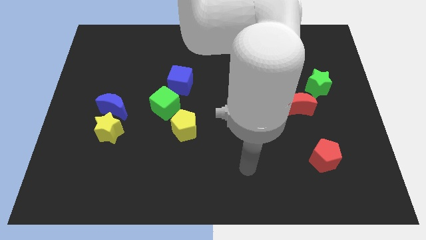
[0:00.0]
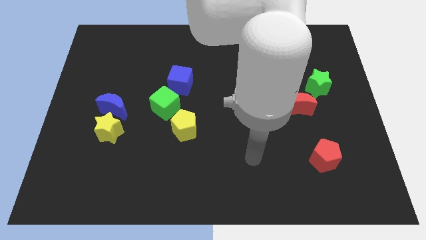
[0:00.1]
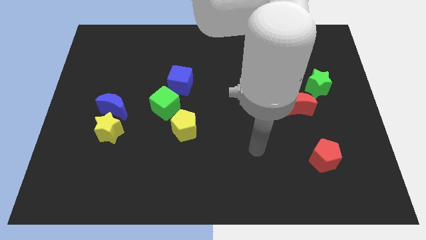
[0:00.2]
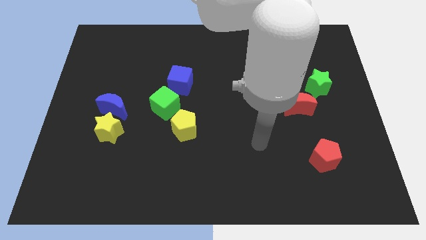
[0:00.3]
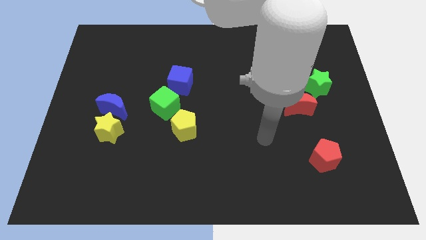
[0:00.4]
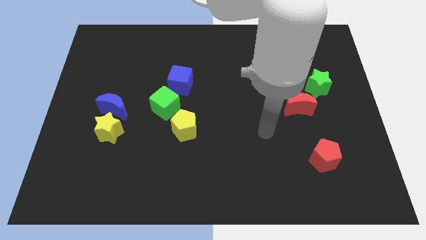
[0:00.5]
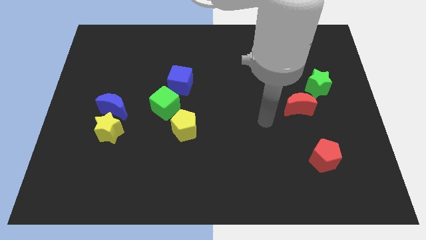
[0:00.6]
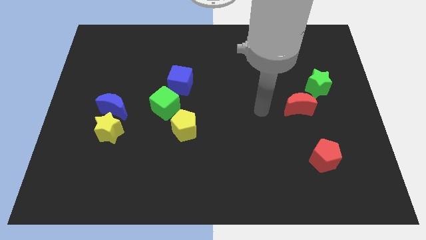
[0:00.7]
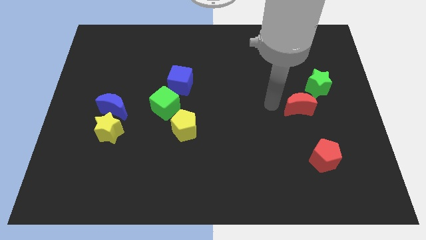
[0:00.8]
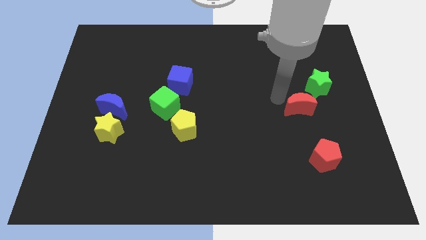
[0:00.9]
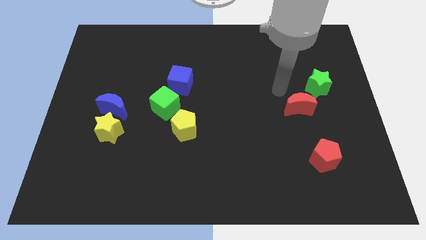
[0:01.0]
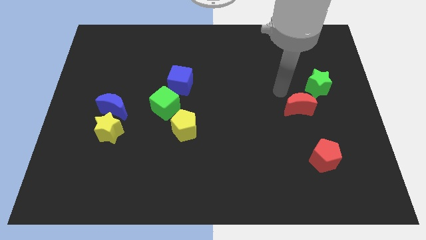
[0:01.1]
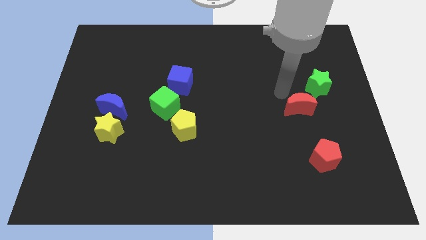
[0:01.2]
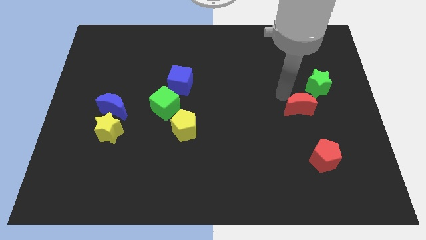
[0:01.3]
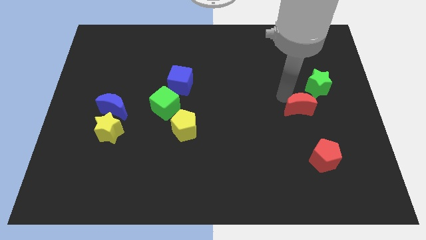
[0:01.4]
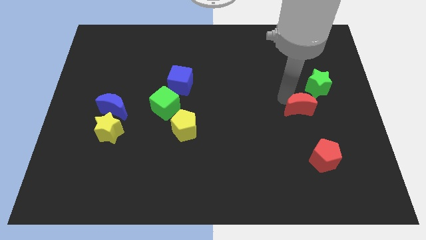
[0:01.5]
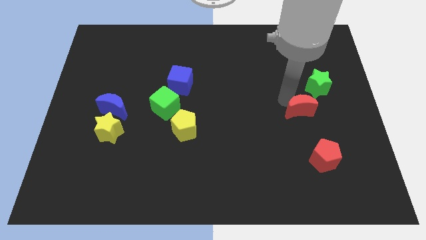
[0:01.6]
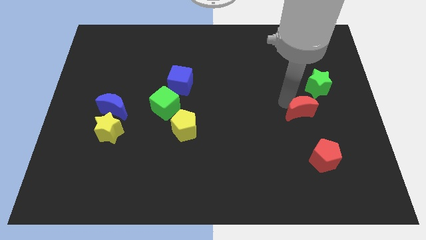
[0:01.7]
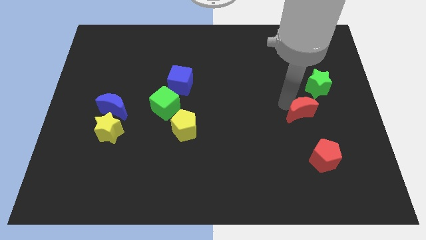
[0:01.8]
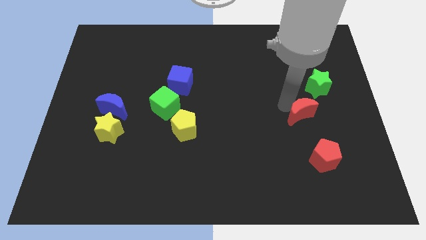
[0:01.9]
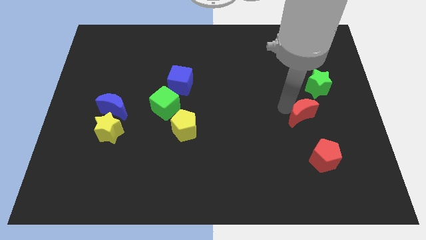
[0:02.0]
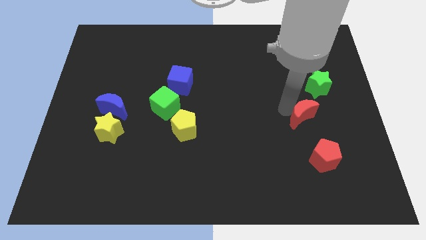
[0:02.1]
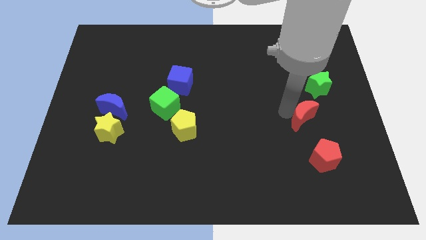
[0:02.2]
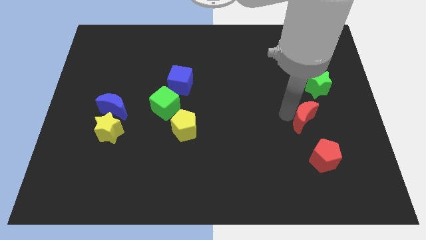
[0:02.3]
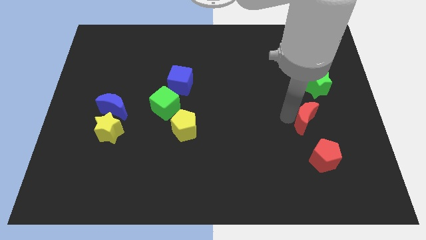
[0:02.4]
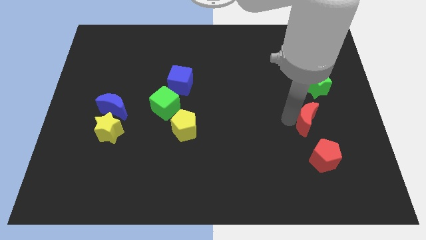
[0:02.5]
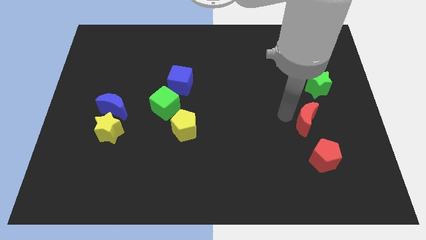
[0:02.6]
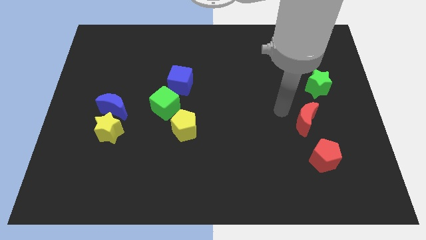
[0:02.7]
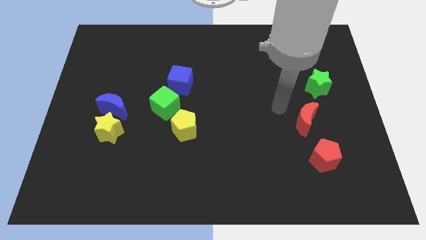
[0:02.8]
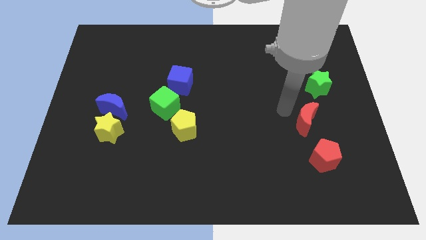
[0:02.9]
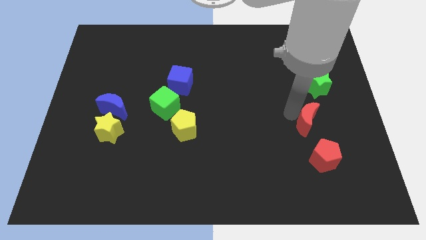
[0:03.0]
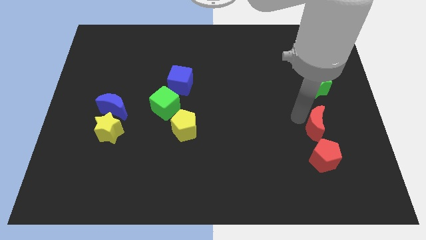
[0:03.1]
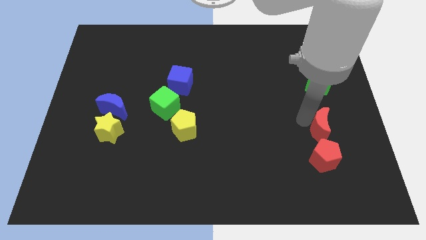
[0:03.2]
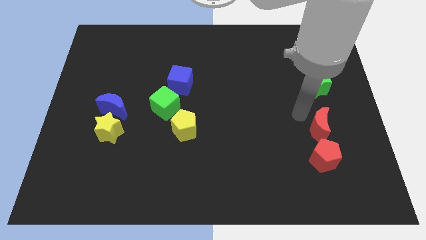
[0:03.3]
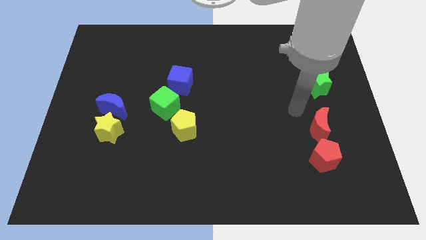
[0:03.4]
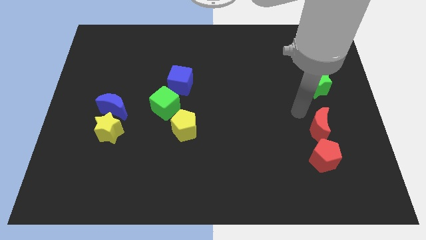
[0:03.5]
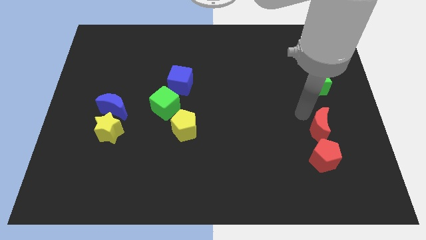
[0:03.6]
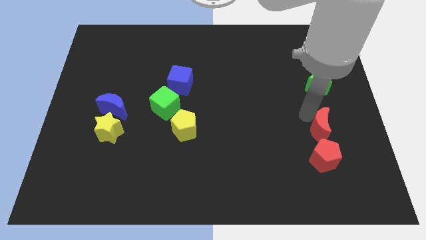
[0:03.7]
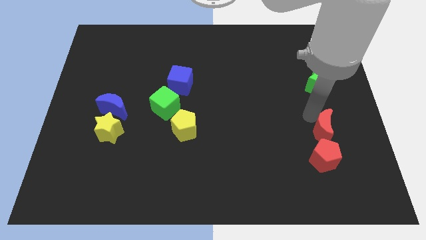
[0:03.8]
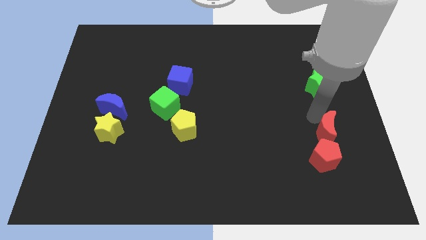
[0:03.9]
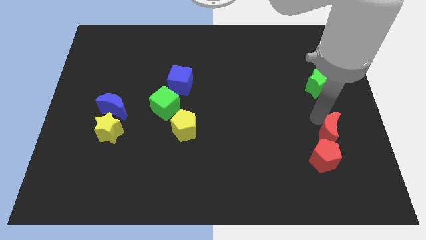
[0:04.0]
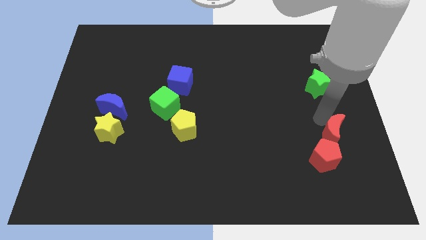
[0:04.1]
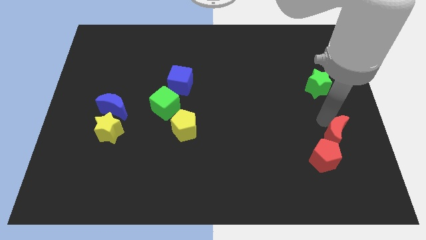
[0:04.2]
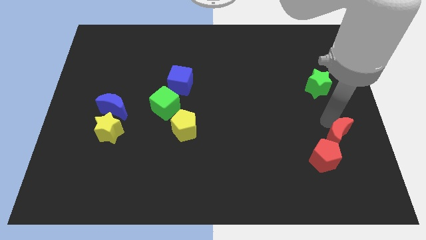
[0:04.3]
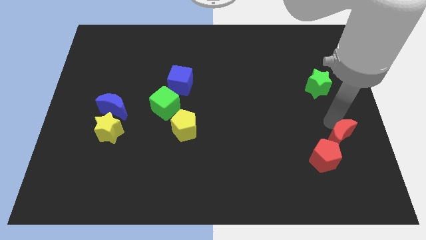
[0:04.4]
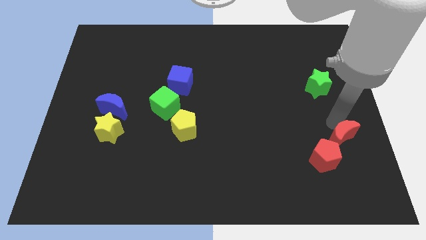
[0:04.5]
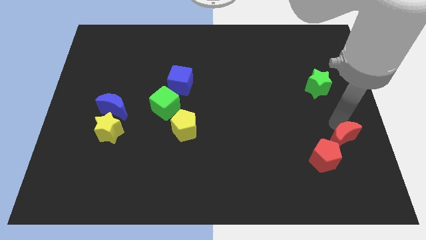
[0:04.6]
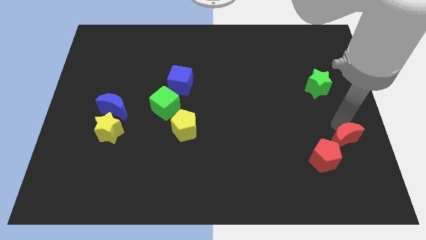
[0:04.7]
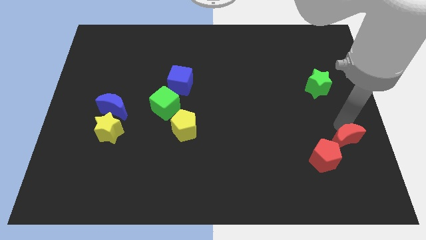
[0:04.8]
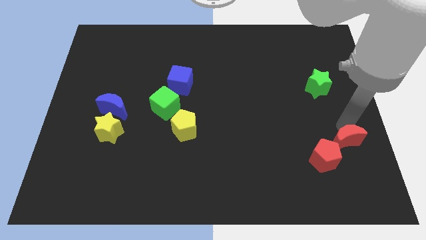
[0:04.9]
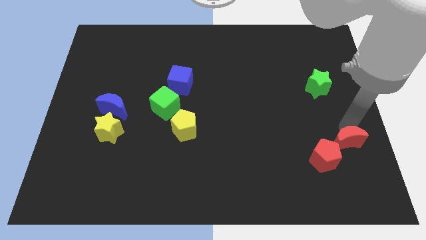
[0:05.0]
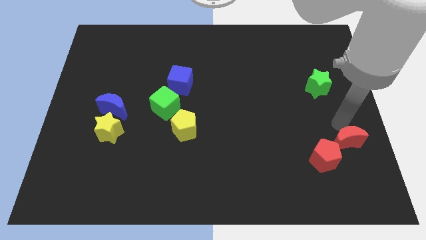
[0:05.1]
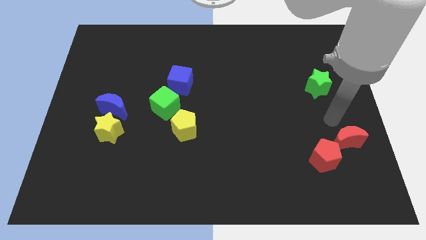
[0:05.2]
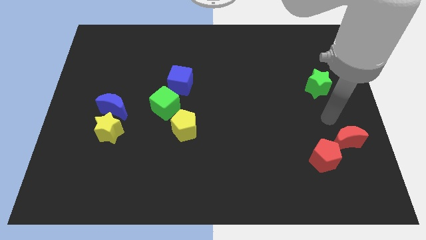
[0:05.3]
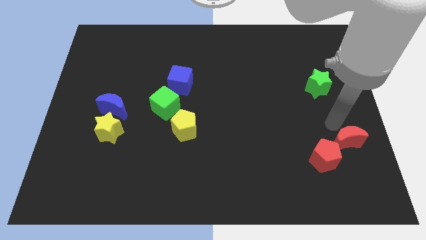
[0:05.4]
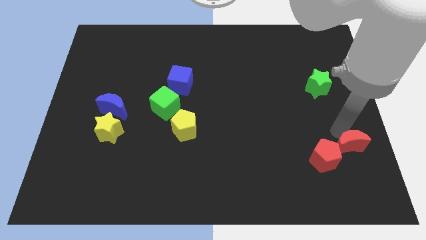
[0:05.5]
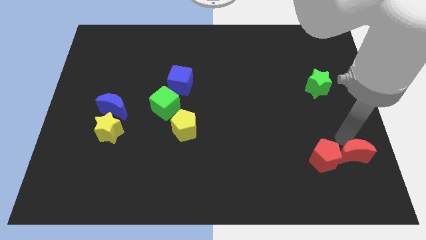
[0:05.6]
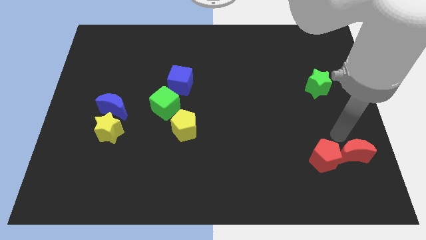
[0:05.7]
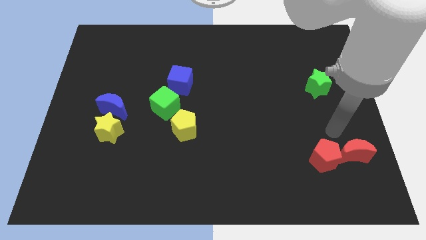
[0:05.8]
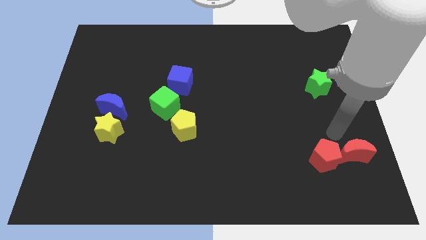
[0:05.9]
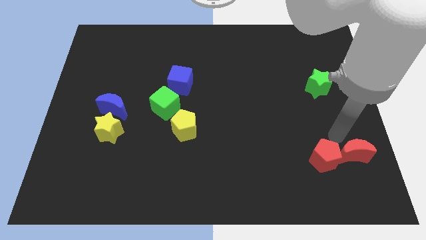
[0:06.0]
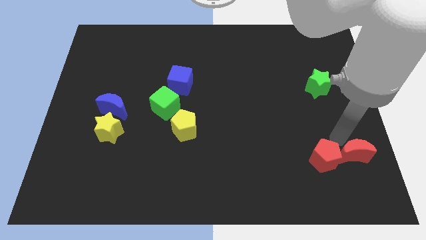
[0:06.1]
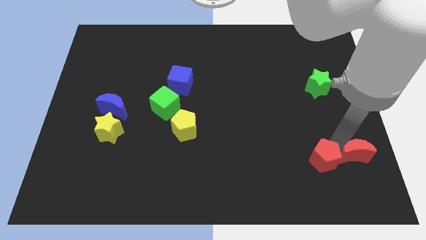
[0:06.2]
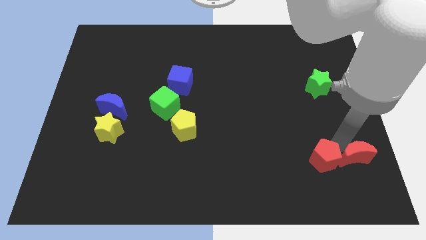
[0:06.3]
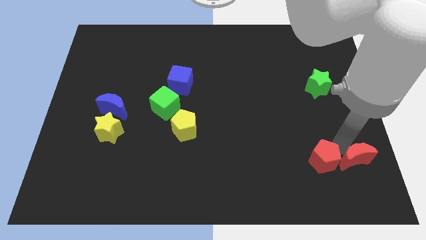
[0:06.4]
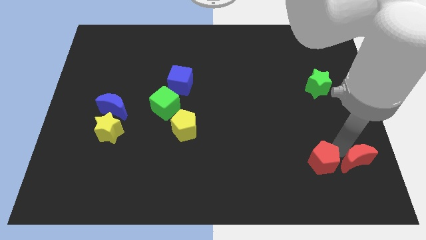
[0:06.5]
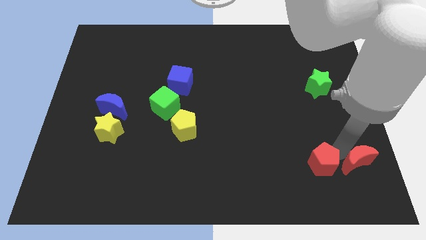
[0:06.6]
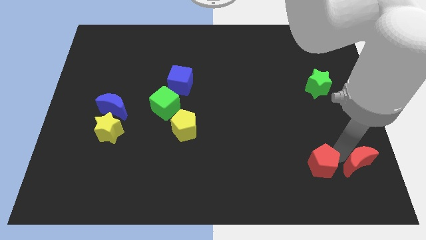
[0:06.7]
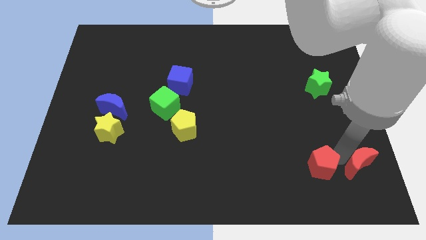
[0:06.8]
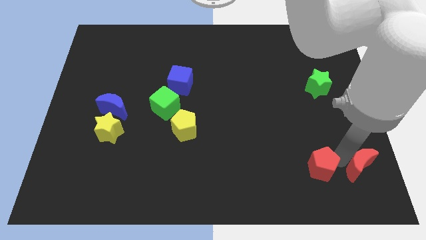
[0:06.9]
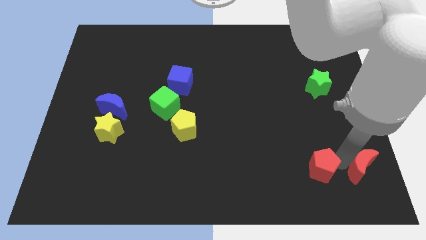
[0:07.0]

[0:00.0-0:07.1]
move the red moon to the bottom right corner

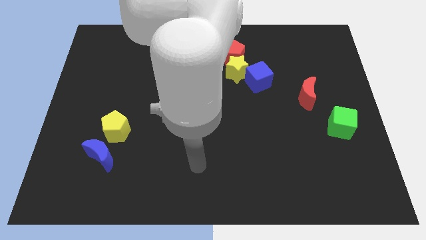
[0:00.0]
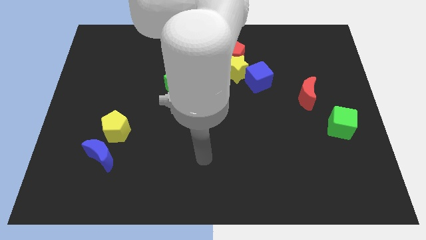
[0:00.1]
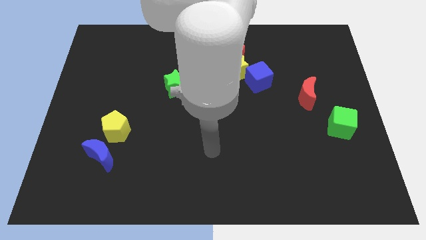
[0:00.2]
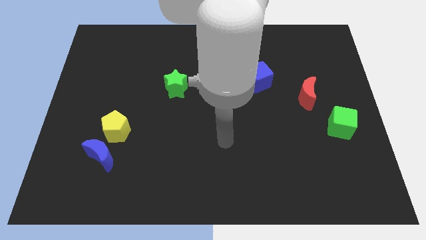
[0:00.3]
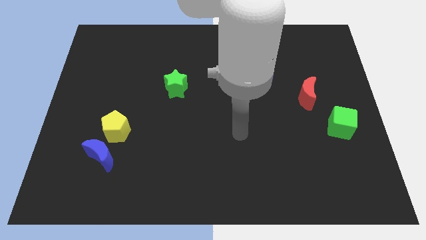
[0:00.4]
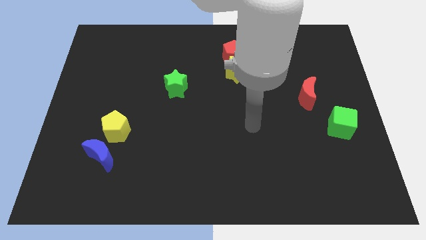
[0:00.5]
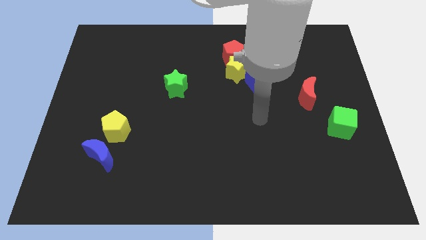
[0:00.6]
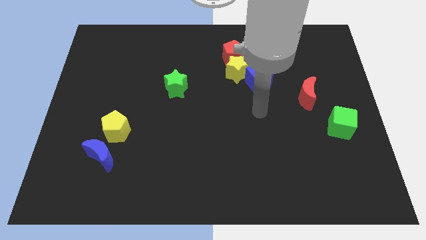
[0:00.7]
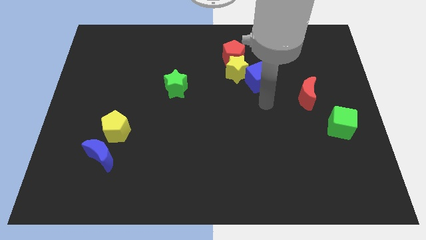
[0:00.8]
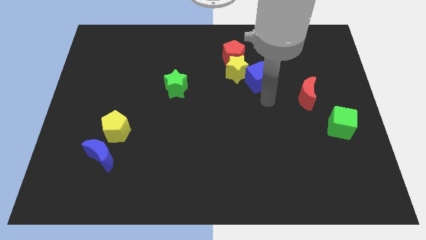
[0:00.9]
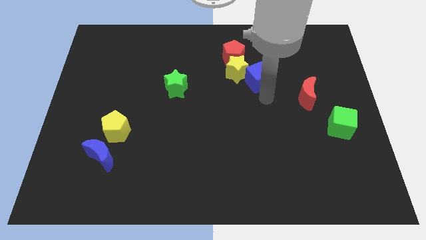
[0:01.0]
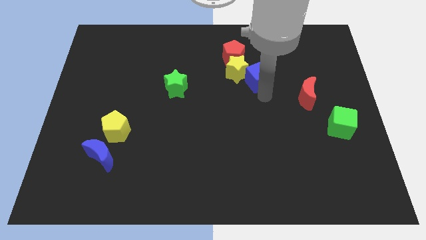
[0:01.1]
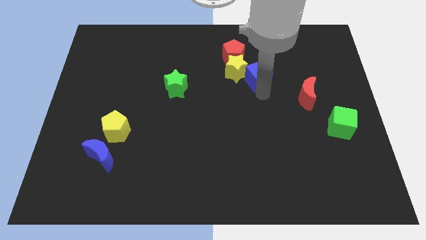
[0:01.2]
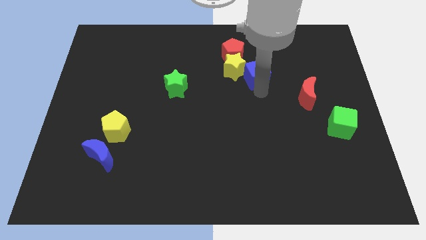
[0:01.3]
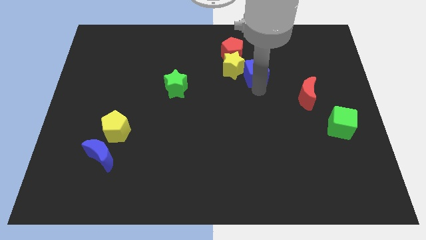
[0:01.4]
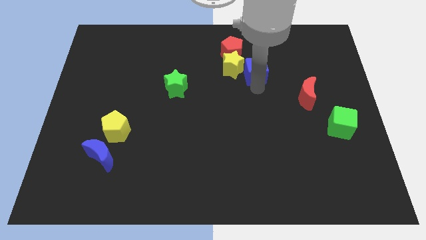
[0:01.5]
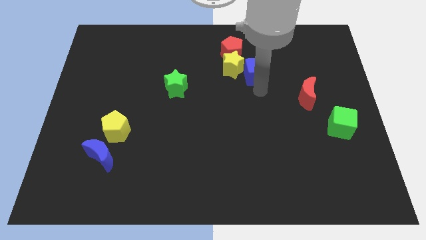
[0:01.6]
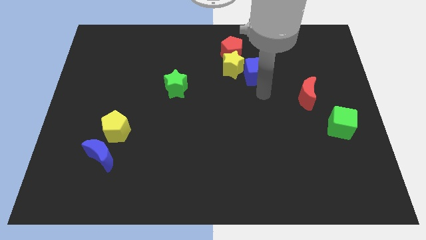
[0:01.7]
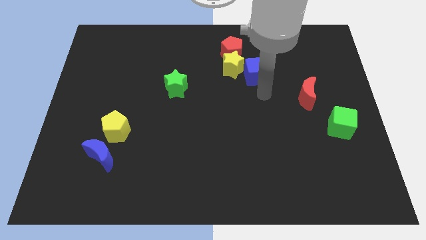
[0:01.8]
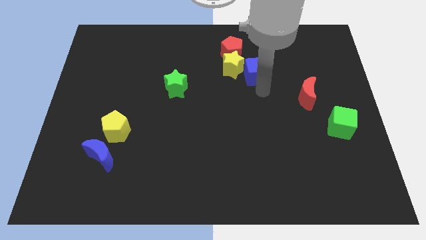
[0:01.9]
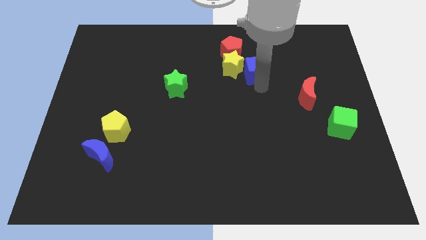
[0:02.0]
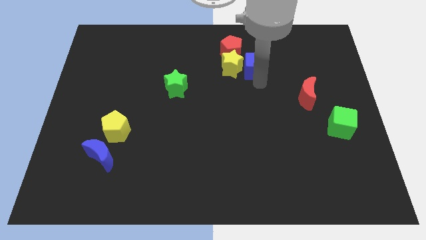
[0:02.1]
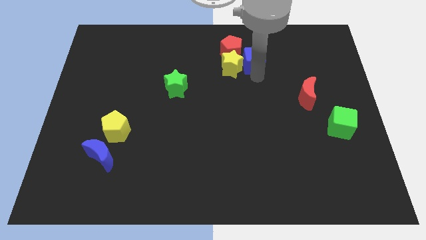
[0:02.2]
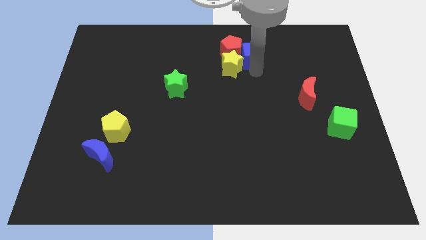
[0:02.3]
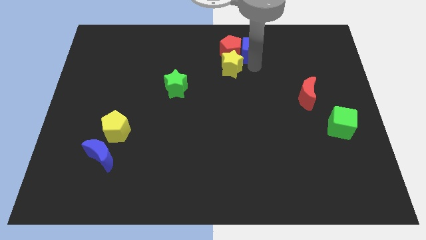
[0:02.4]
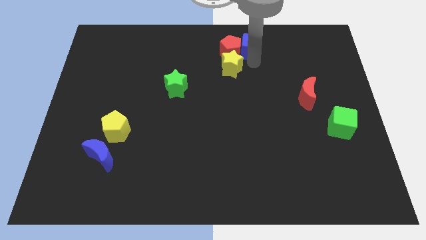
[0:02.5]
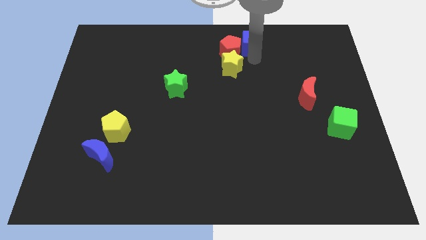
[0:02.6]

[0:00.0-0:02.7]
move the blue cube to the top
